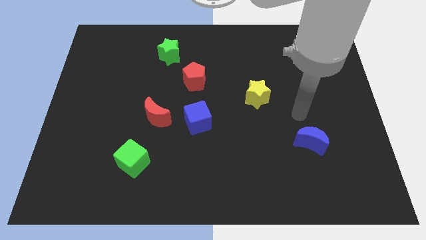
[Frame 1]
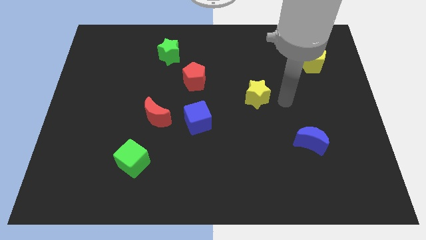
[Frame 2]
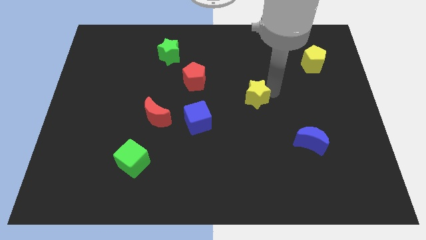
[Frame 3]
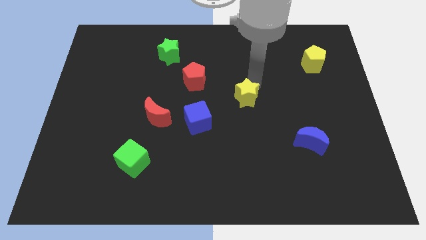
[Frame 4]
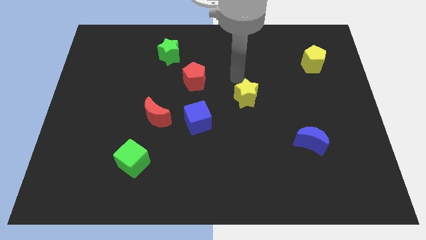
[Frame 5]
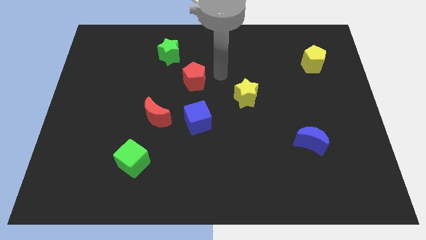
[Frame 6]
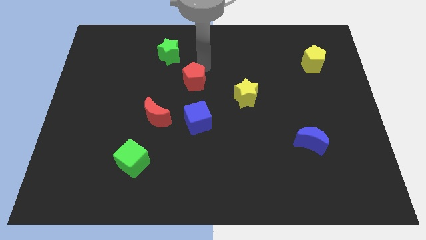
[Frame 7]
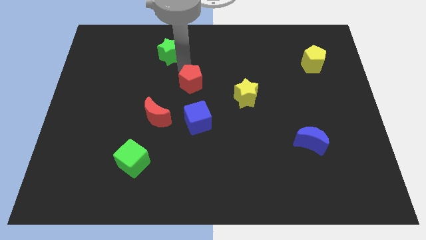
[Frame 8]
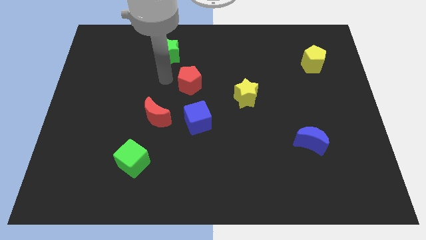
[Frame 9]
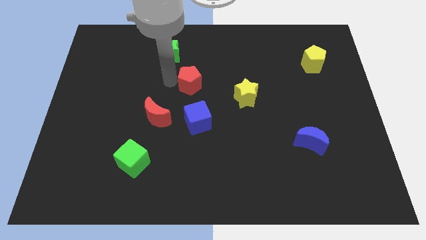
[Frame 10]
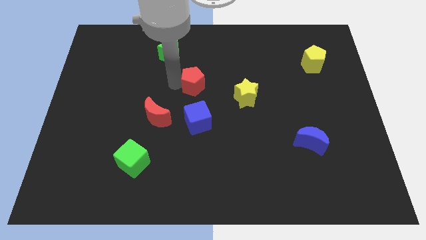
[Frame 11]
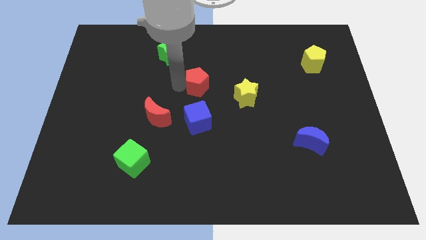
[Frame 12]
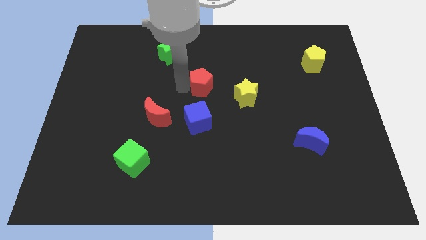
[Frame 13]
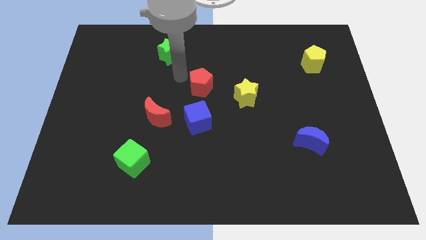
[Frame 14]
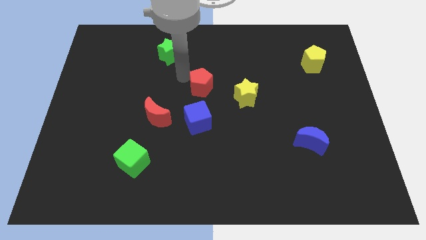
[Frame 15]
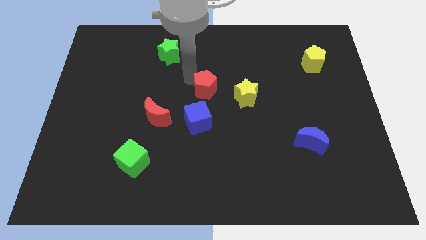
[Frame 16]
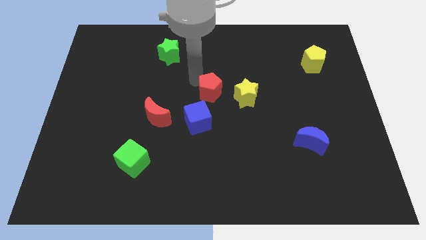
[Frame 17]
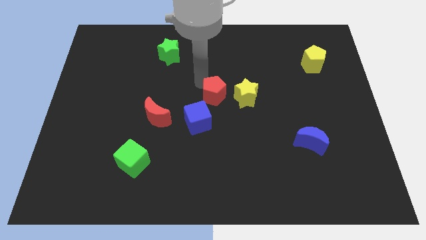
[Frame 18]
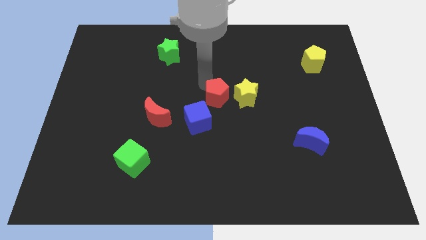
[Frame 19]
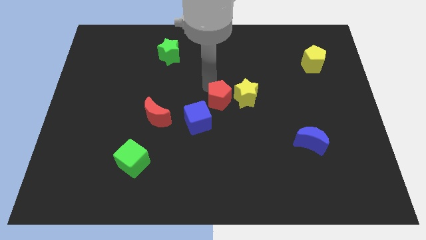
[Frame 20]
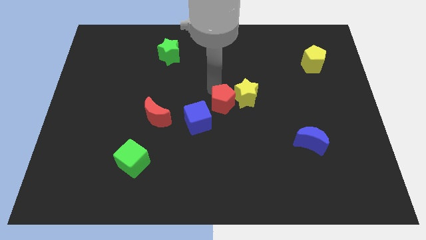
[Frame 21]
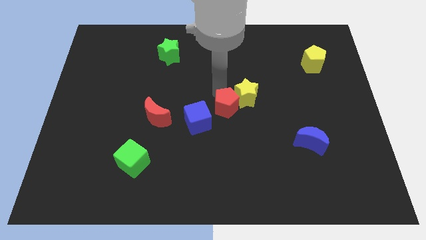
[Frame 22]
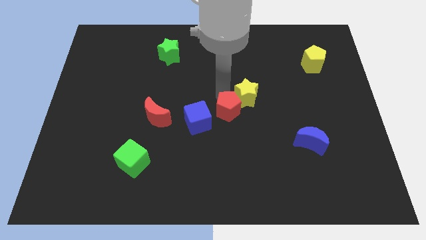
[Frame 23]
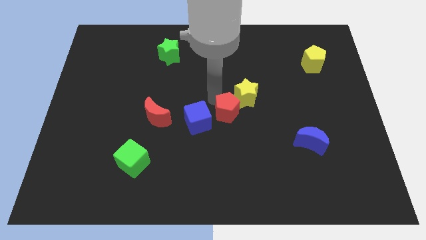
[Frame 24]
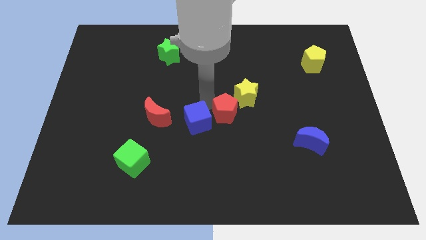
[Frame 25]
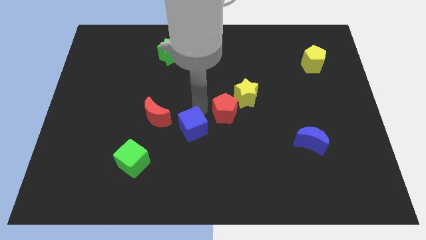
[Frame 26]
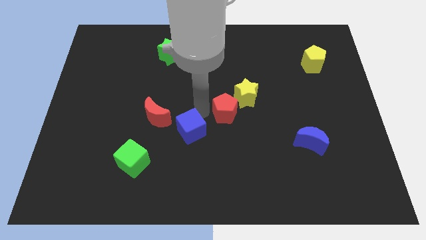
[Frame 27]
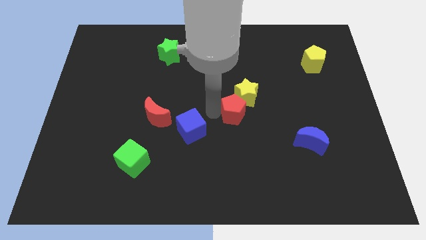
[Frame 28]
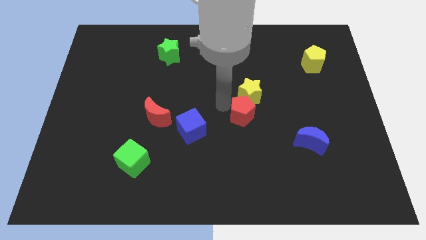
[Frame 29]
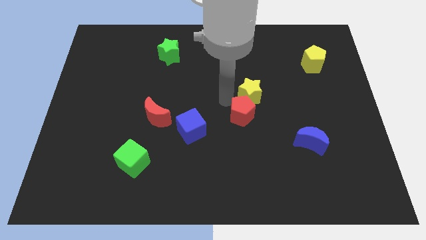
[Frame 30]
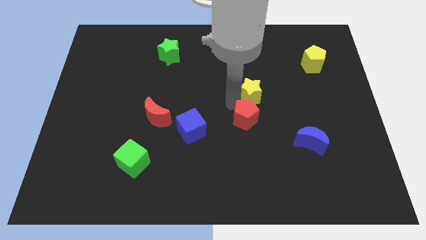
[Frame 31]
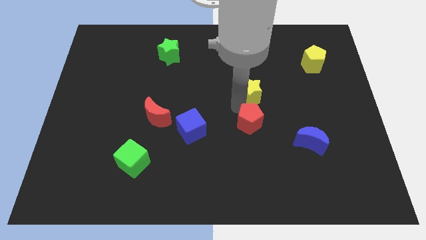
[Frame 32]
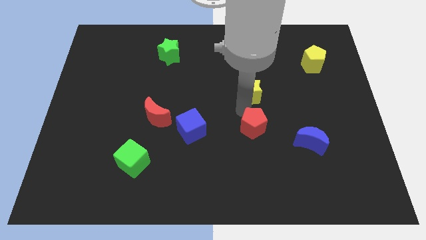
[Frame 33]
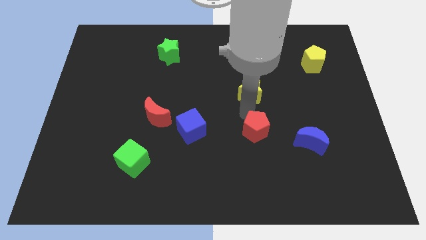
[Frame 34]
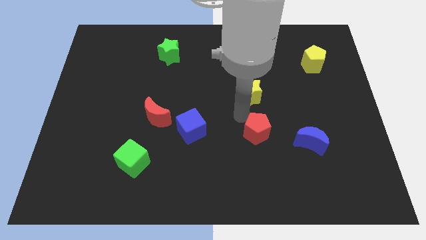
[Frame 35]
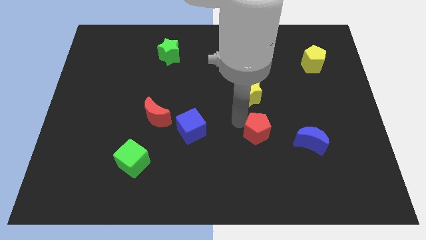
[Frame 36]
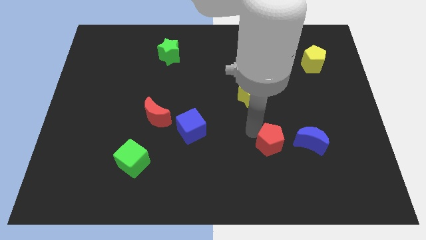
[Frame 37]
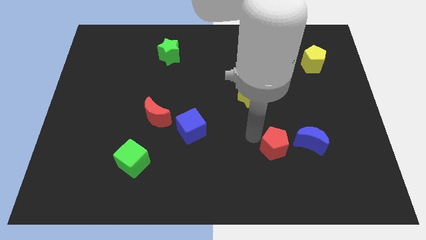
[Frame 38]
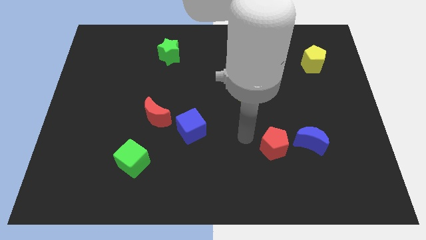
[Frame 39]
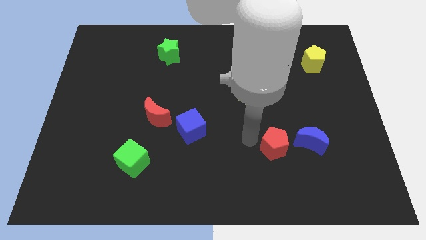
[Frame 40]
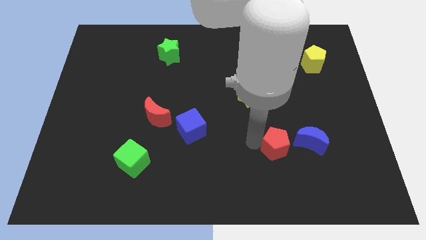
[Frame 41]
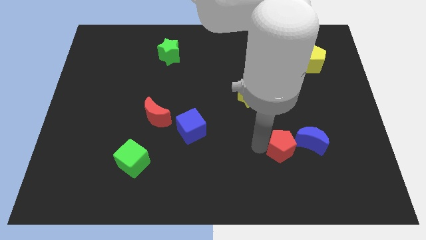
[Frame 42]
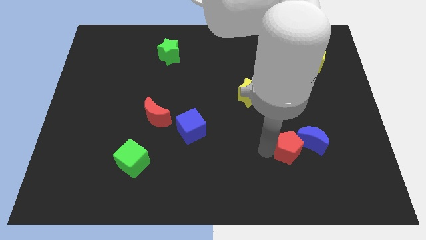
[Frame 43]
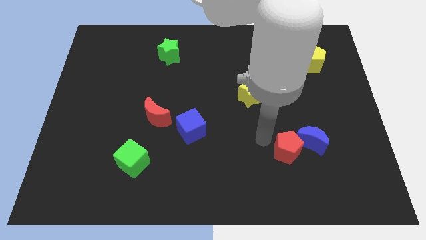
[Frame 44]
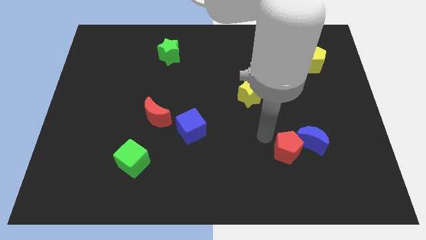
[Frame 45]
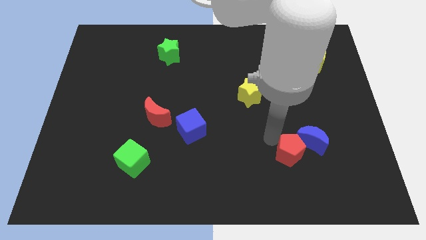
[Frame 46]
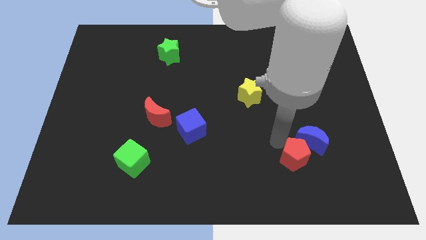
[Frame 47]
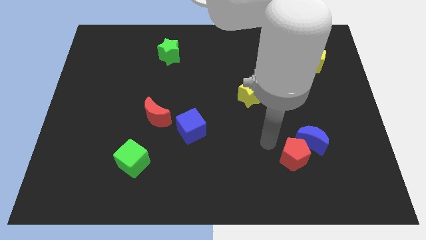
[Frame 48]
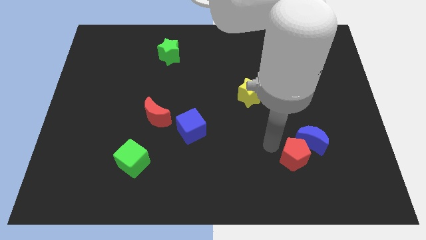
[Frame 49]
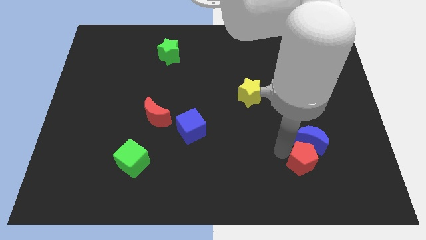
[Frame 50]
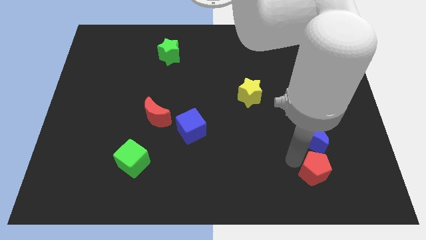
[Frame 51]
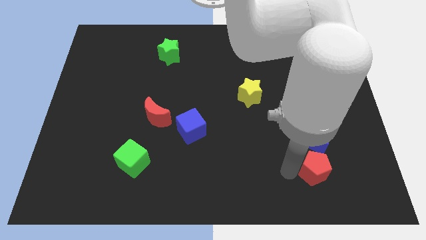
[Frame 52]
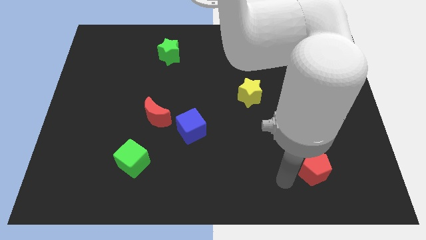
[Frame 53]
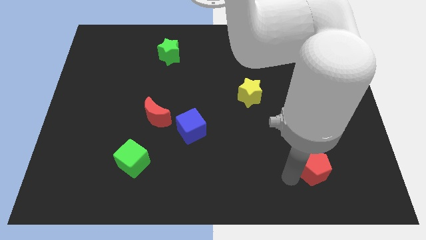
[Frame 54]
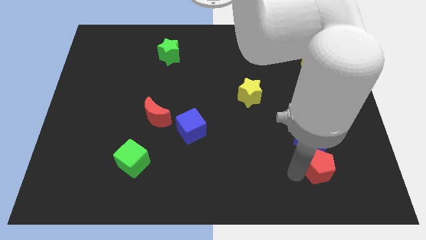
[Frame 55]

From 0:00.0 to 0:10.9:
put the red pentagon to the bottom right side of the blue moon

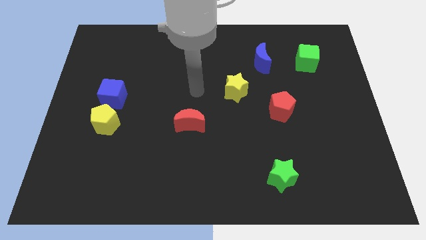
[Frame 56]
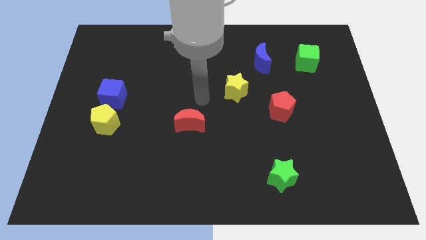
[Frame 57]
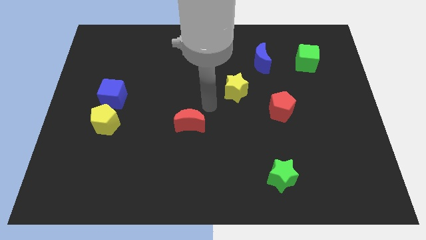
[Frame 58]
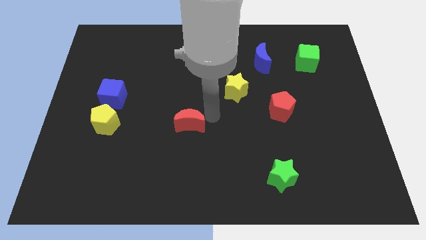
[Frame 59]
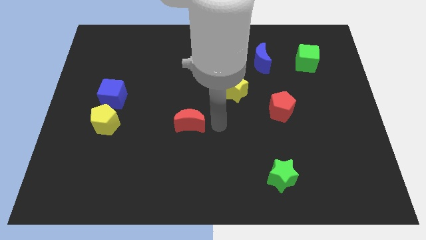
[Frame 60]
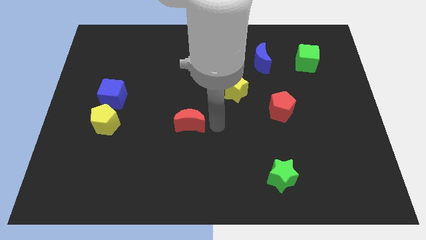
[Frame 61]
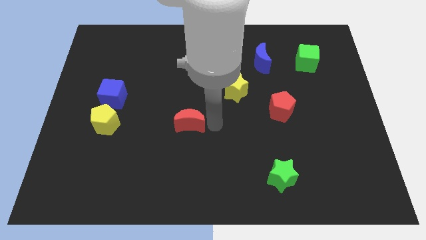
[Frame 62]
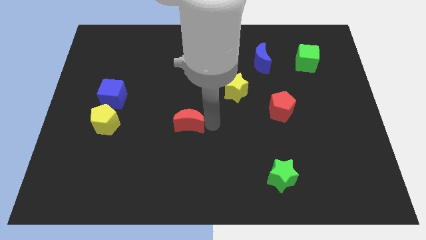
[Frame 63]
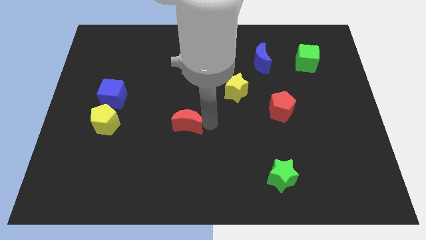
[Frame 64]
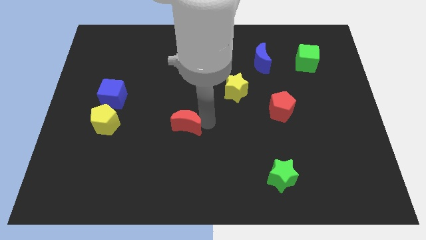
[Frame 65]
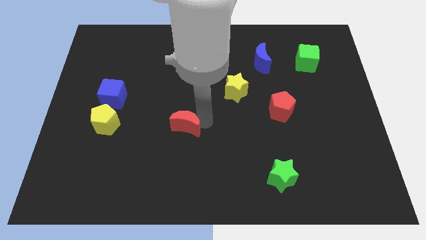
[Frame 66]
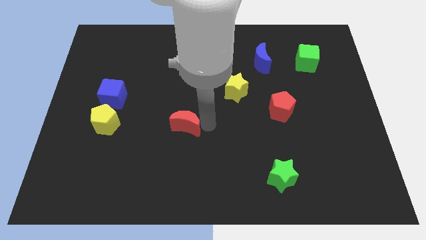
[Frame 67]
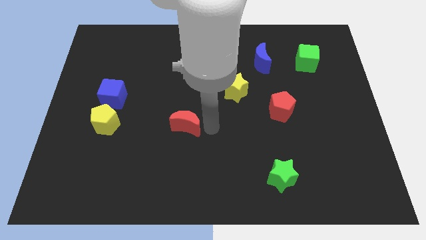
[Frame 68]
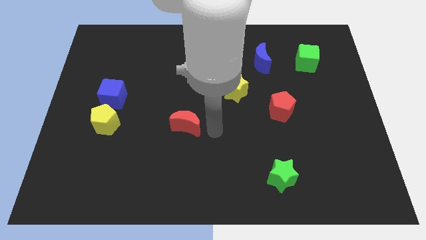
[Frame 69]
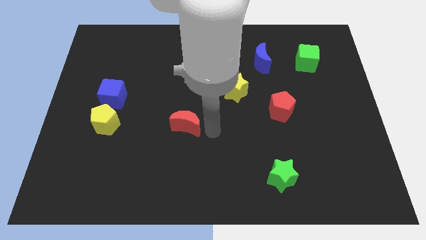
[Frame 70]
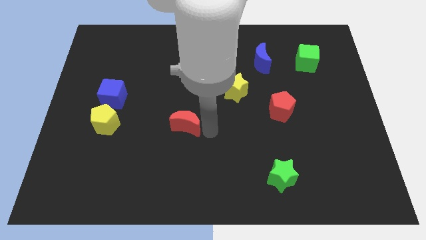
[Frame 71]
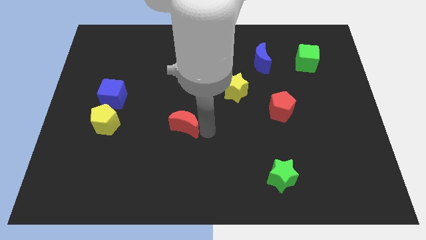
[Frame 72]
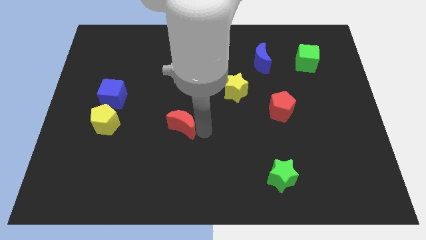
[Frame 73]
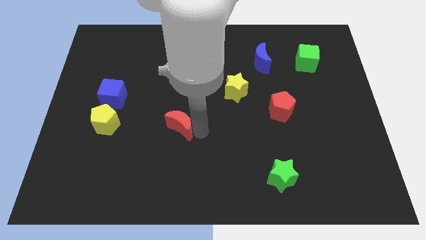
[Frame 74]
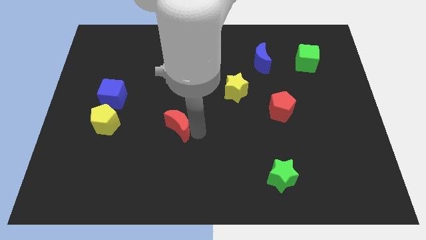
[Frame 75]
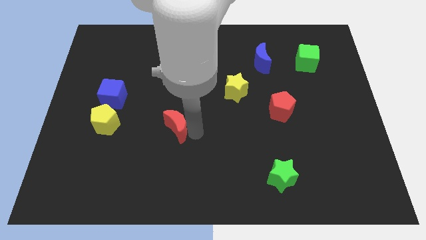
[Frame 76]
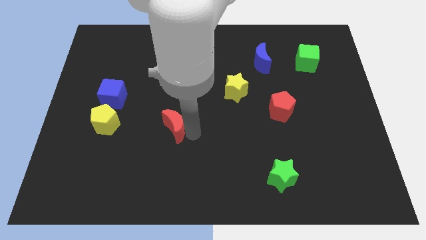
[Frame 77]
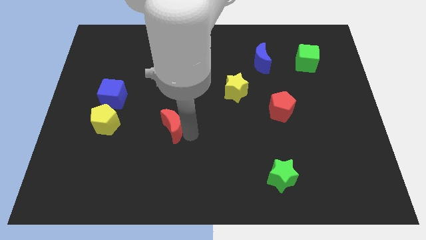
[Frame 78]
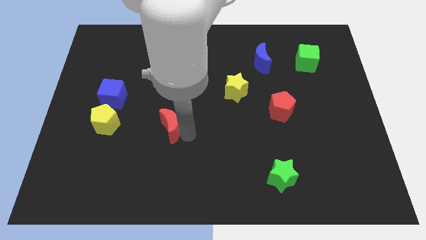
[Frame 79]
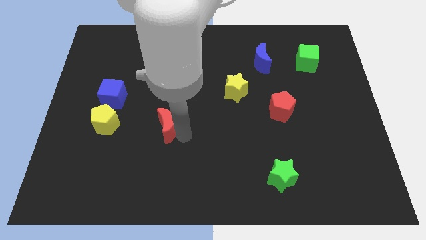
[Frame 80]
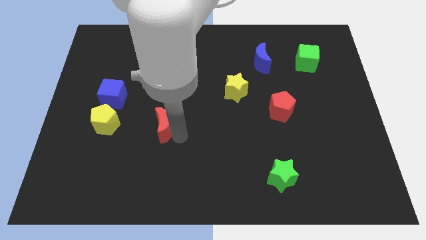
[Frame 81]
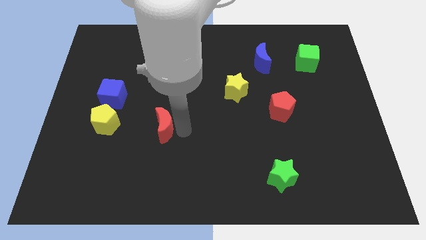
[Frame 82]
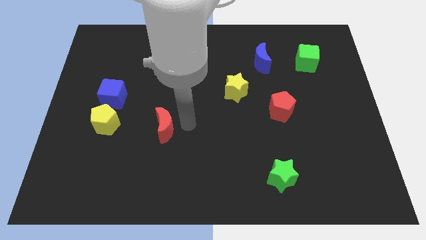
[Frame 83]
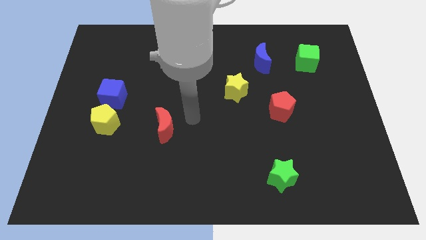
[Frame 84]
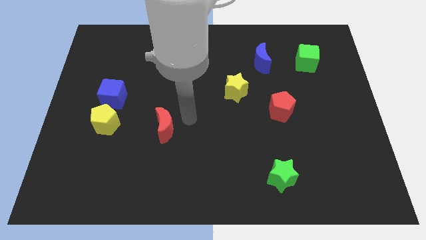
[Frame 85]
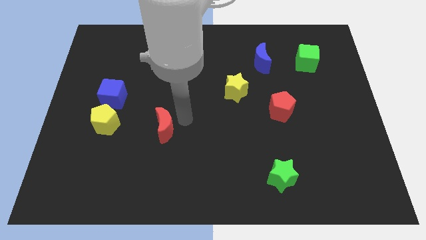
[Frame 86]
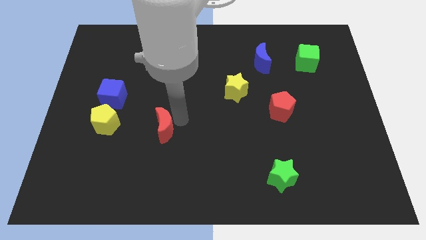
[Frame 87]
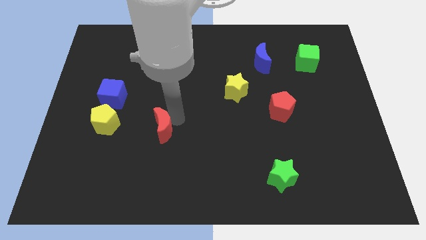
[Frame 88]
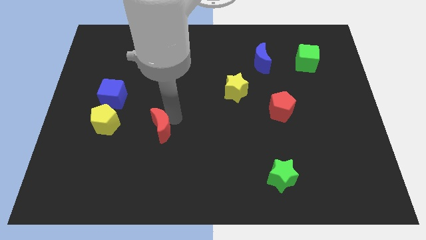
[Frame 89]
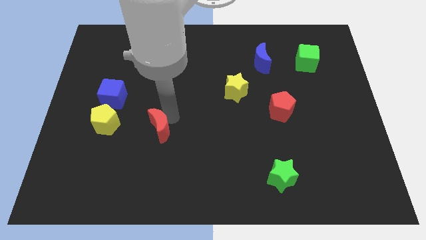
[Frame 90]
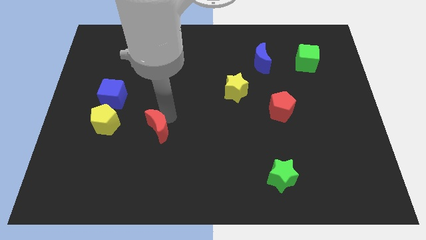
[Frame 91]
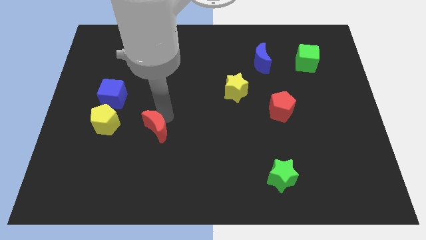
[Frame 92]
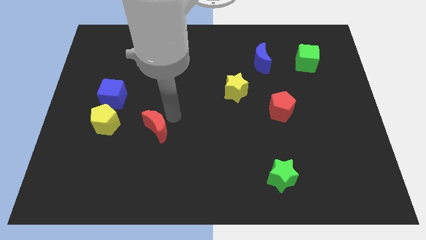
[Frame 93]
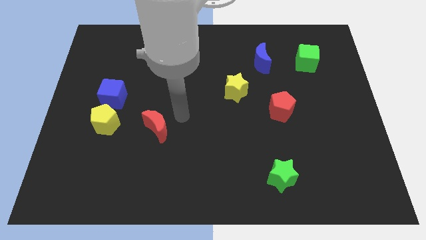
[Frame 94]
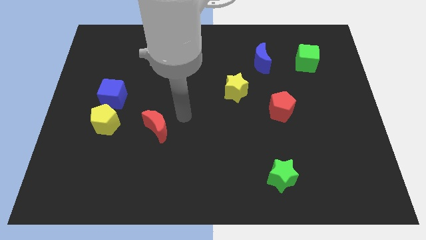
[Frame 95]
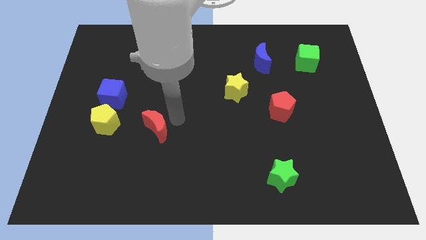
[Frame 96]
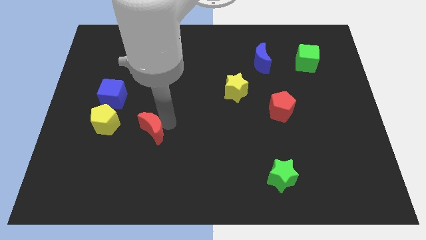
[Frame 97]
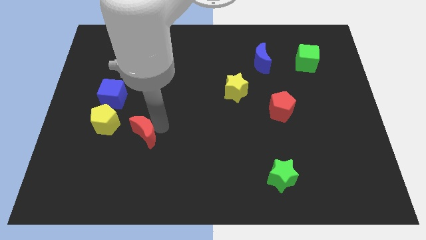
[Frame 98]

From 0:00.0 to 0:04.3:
slide the red moon to the bottom right side of the yellow pentagon
